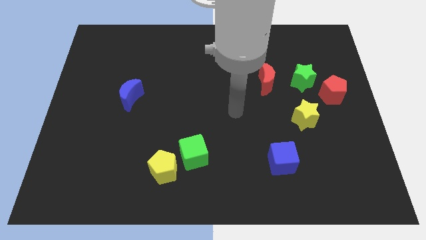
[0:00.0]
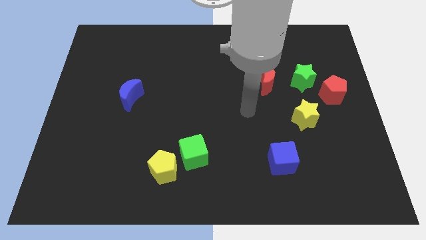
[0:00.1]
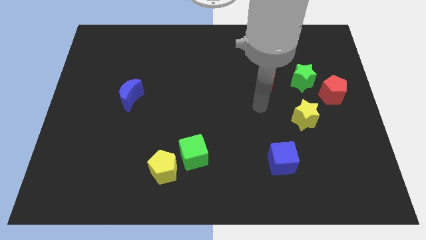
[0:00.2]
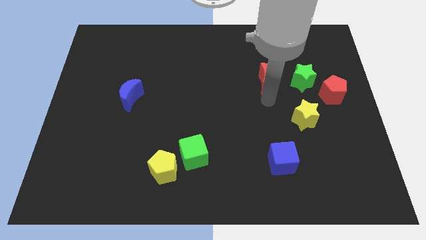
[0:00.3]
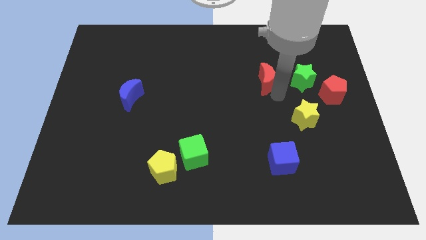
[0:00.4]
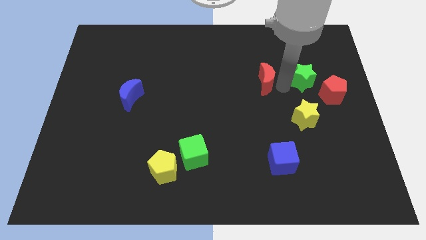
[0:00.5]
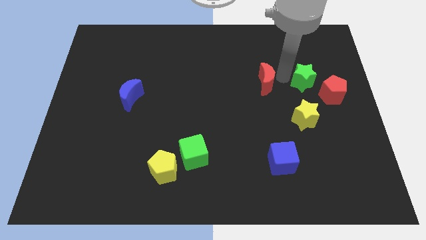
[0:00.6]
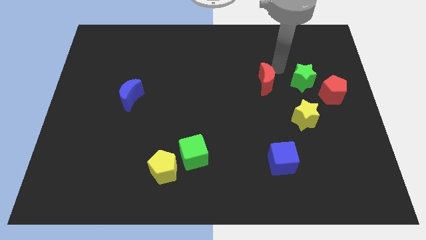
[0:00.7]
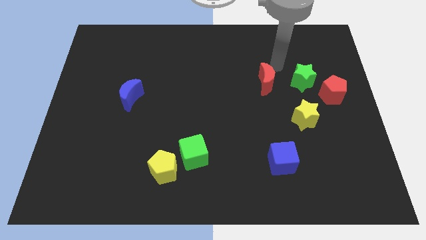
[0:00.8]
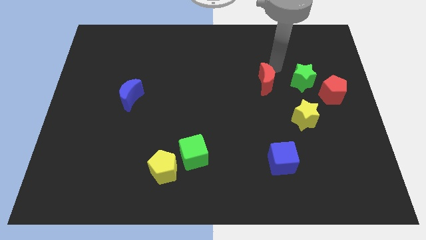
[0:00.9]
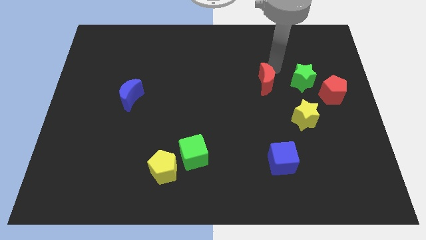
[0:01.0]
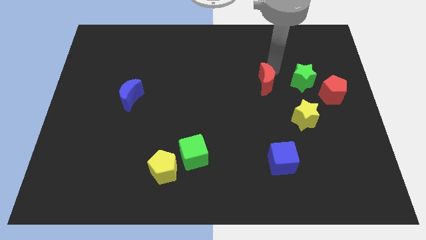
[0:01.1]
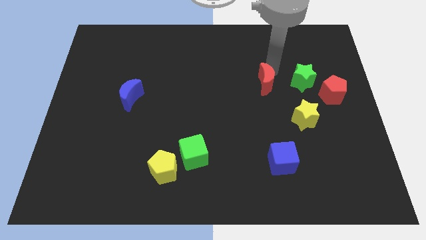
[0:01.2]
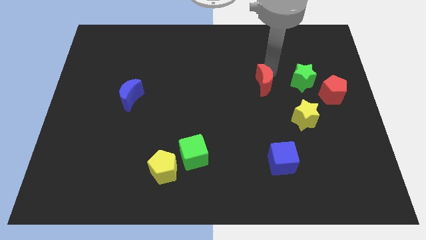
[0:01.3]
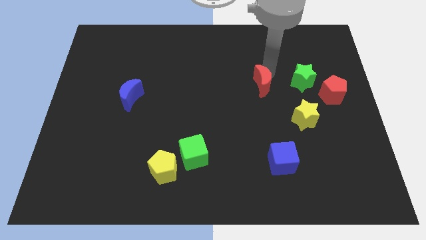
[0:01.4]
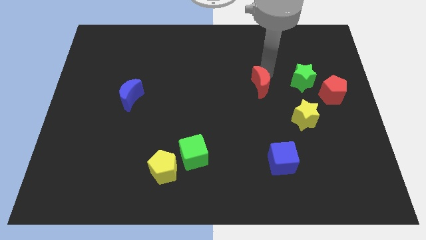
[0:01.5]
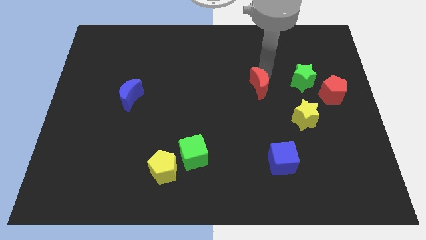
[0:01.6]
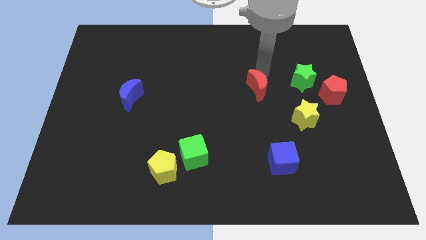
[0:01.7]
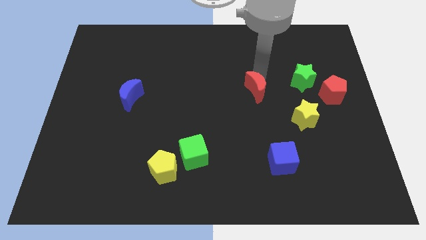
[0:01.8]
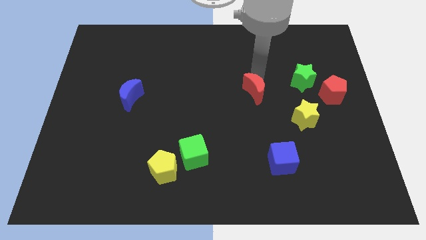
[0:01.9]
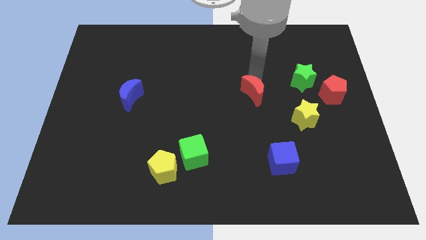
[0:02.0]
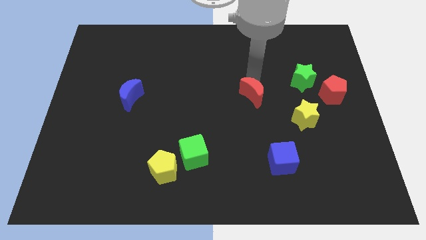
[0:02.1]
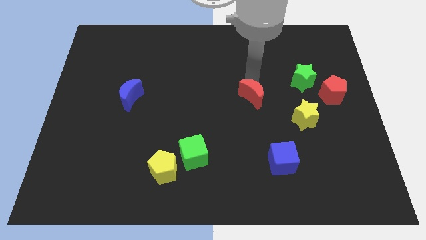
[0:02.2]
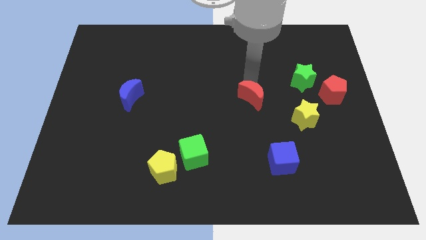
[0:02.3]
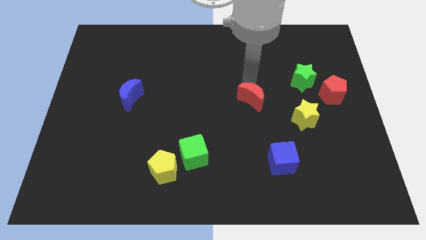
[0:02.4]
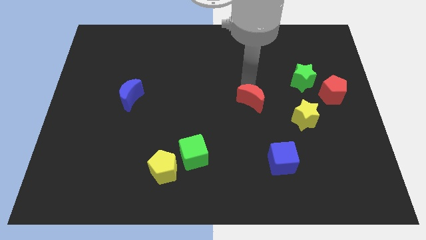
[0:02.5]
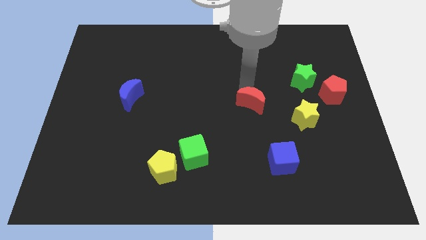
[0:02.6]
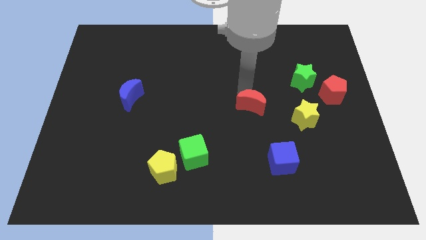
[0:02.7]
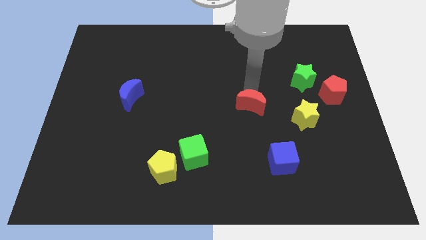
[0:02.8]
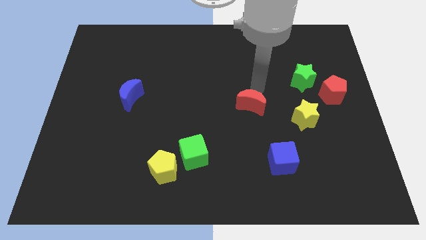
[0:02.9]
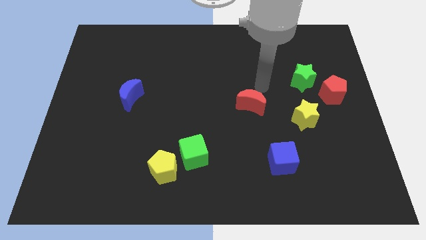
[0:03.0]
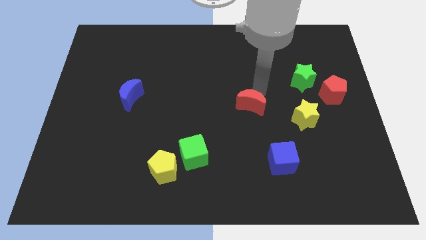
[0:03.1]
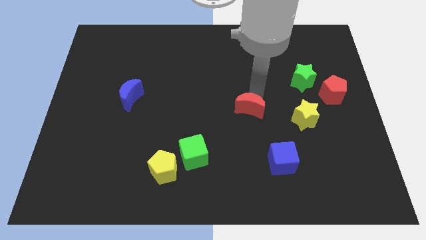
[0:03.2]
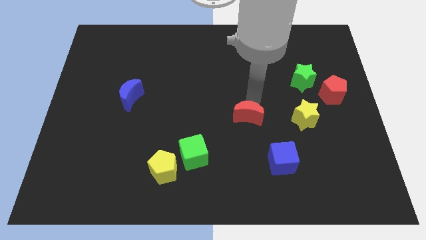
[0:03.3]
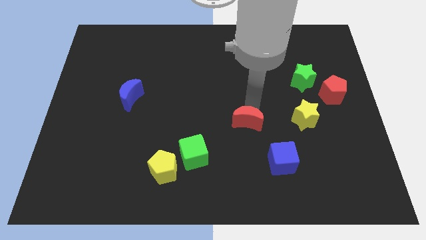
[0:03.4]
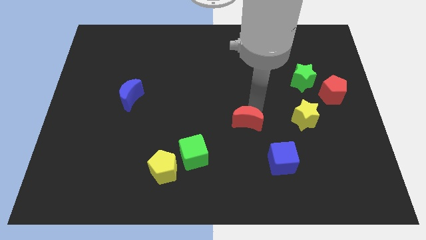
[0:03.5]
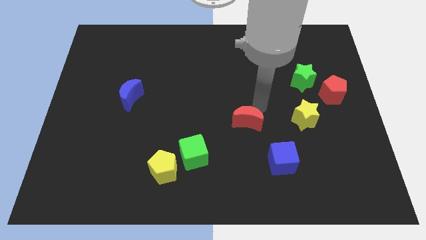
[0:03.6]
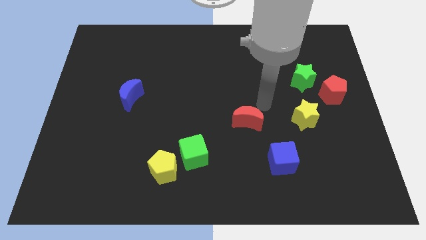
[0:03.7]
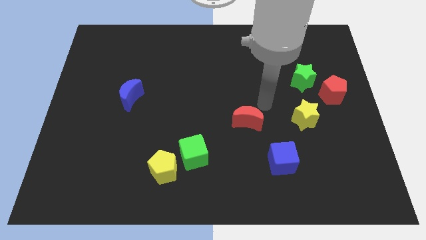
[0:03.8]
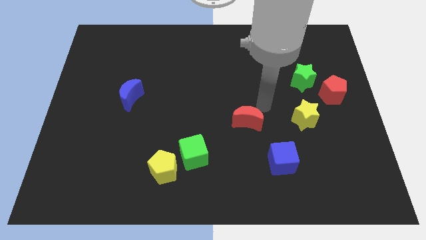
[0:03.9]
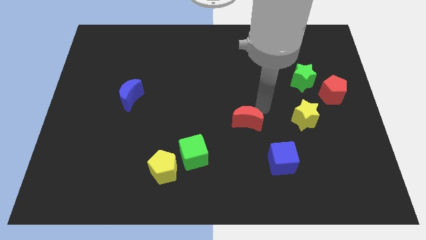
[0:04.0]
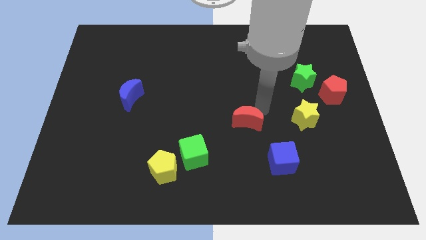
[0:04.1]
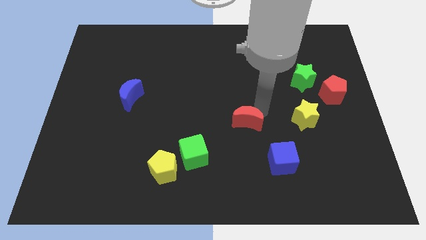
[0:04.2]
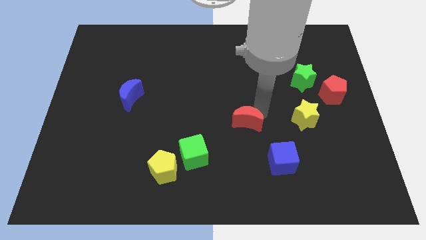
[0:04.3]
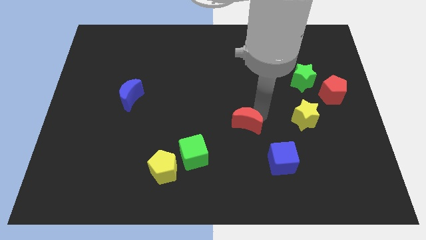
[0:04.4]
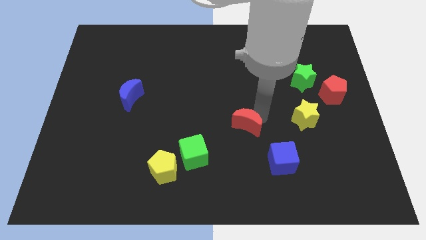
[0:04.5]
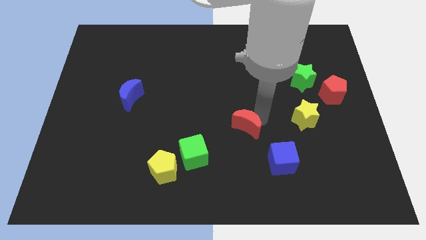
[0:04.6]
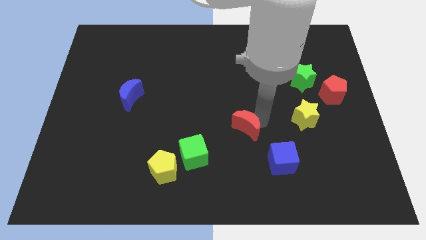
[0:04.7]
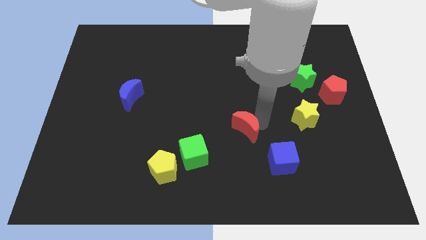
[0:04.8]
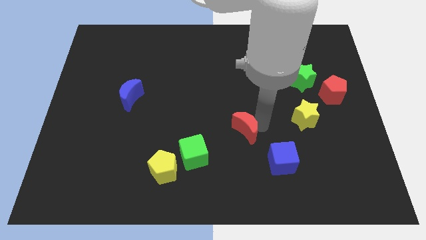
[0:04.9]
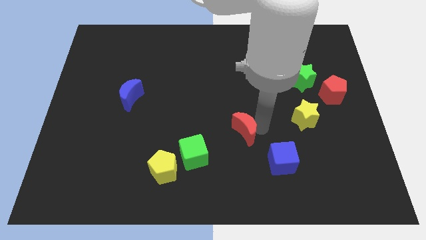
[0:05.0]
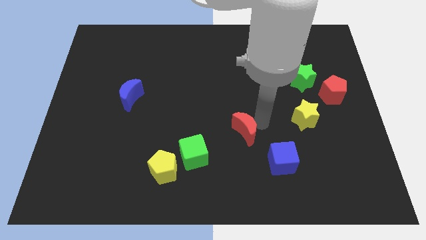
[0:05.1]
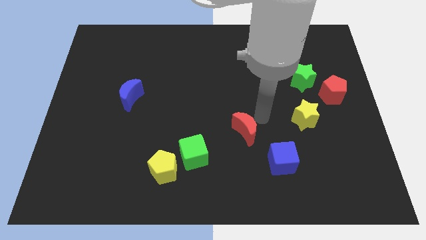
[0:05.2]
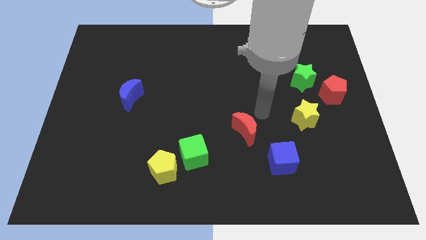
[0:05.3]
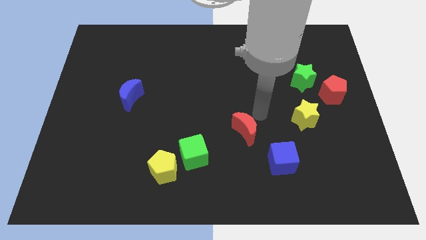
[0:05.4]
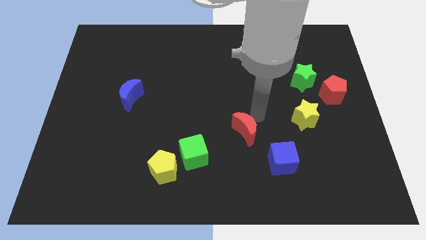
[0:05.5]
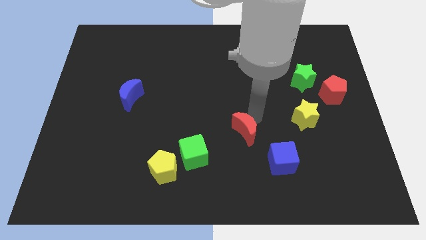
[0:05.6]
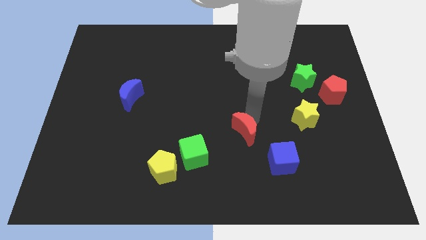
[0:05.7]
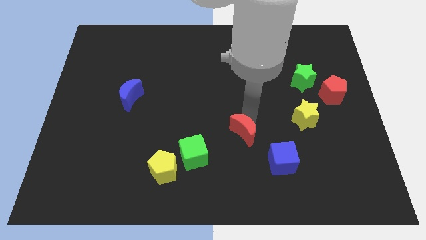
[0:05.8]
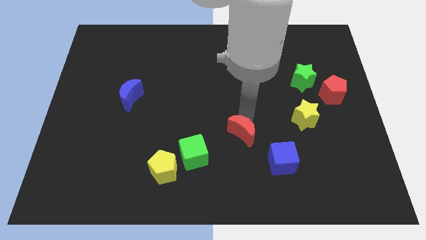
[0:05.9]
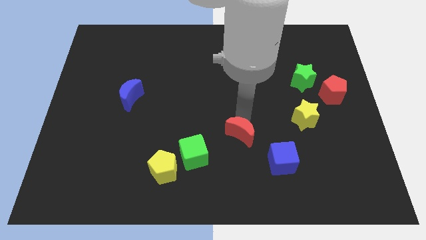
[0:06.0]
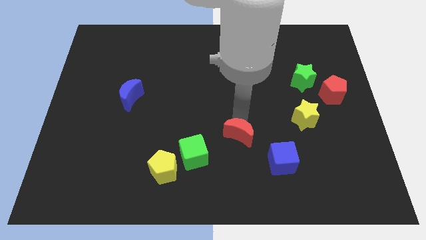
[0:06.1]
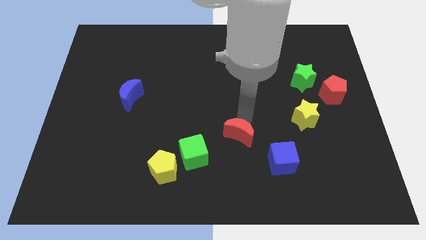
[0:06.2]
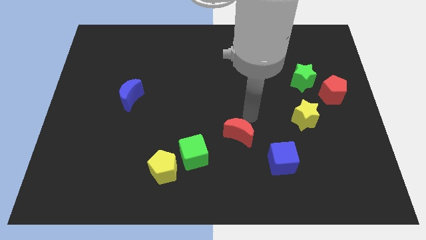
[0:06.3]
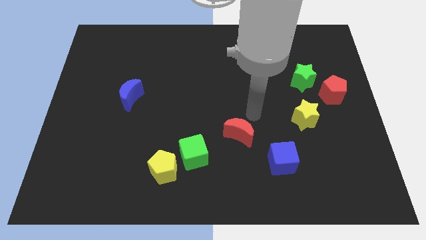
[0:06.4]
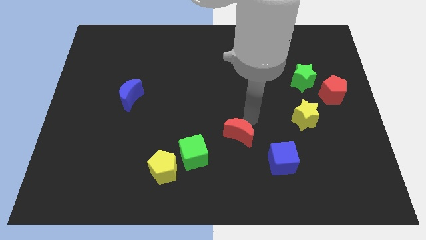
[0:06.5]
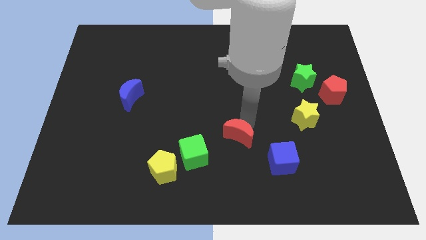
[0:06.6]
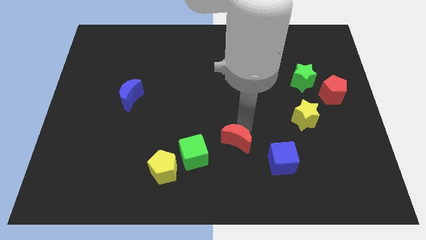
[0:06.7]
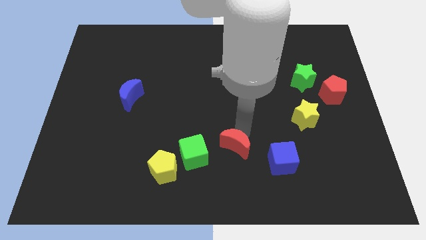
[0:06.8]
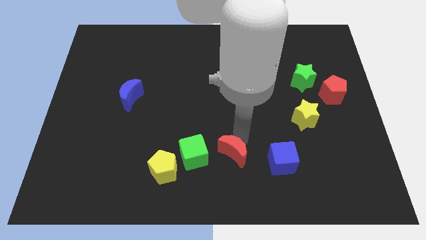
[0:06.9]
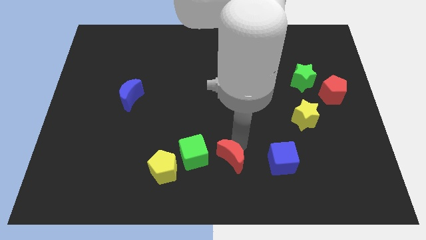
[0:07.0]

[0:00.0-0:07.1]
slide the red moon to the bottom
